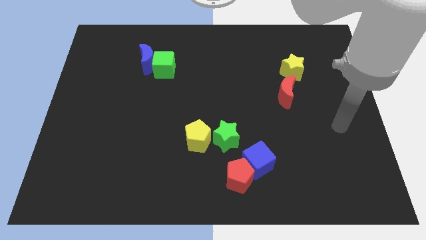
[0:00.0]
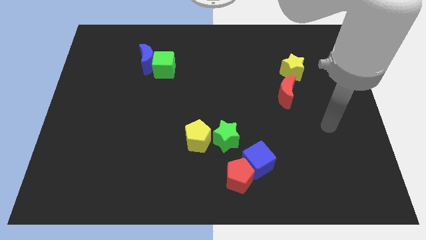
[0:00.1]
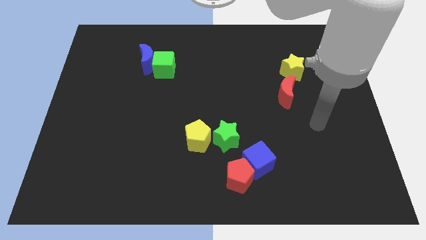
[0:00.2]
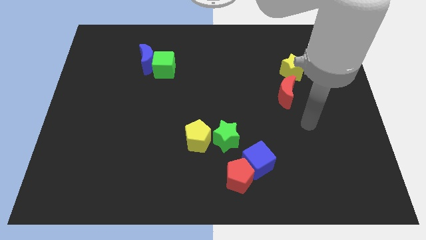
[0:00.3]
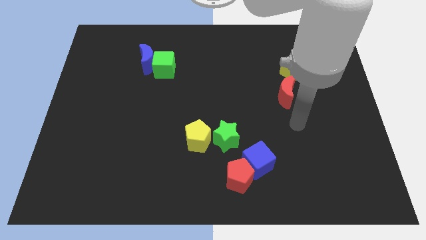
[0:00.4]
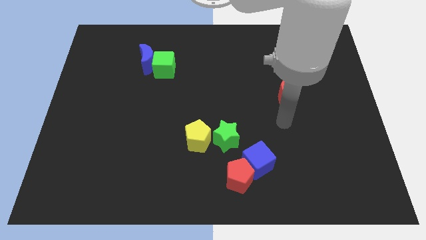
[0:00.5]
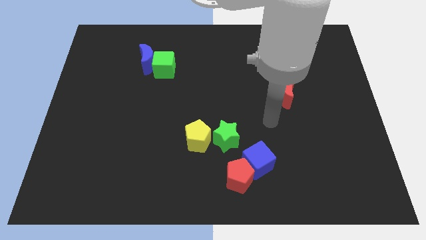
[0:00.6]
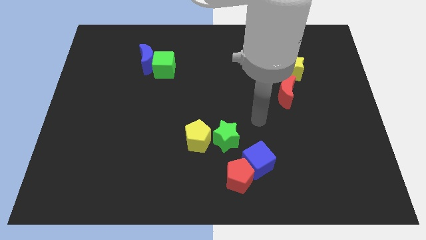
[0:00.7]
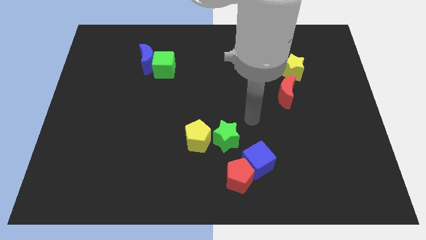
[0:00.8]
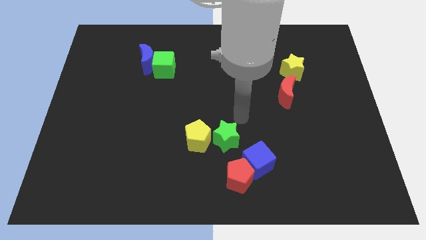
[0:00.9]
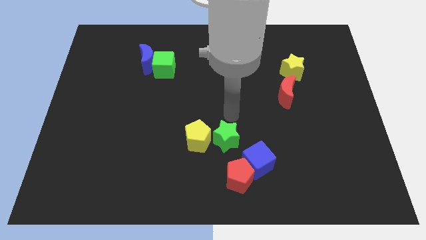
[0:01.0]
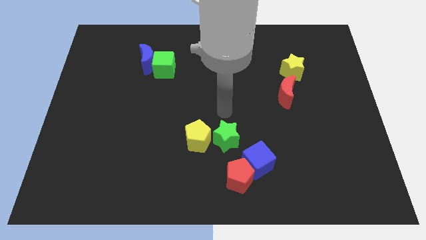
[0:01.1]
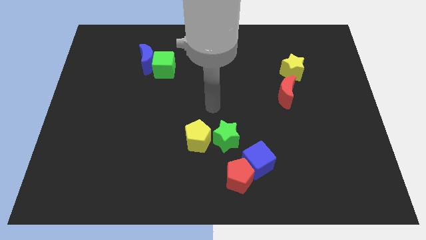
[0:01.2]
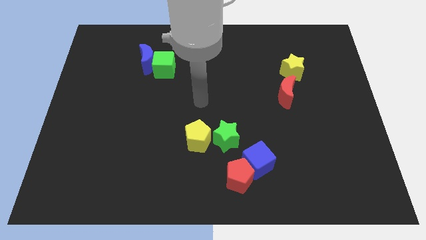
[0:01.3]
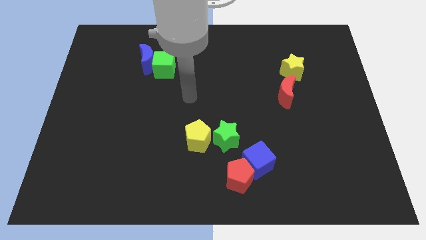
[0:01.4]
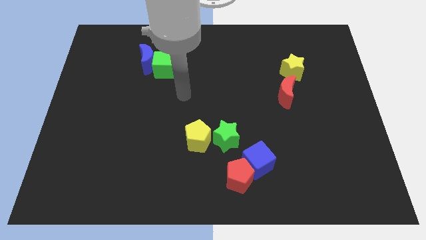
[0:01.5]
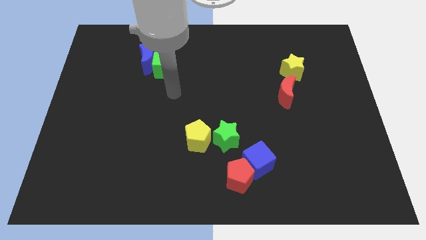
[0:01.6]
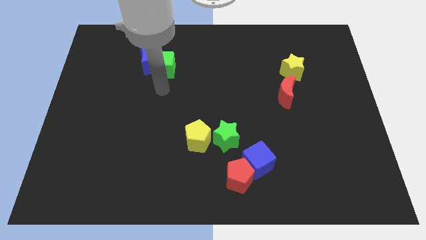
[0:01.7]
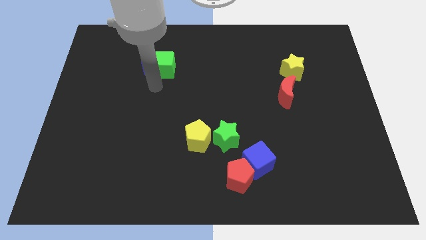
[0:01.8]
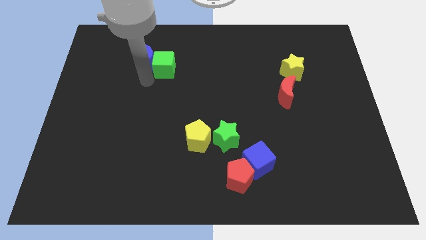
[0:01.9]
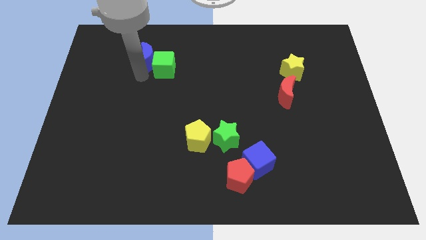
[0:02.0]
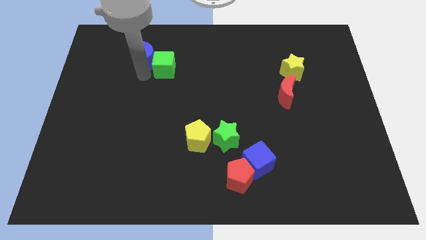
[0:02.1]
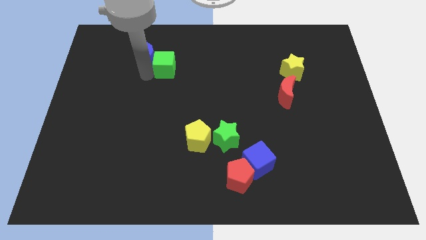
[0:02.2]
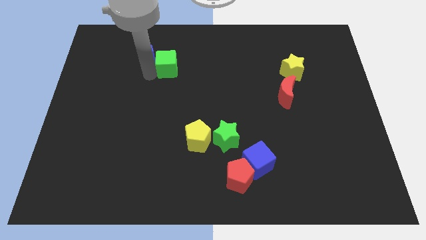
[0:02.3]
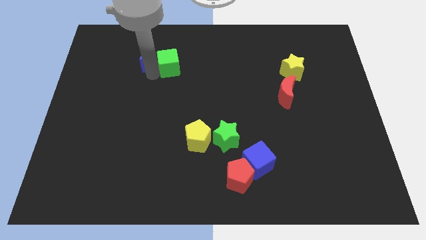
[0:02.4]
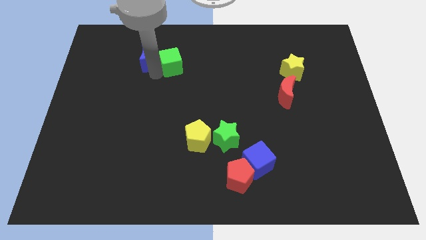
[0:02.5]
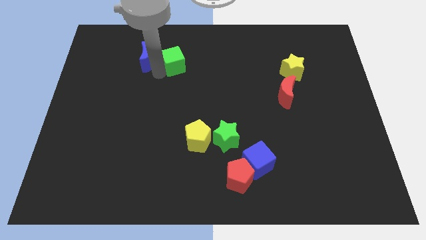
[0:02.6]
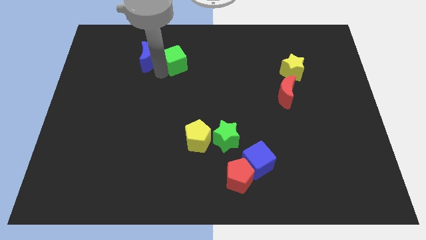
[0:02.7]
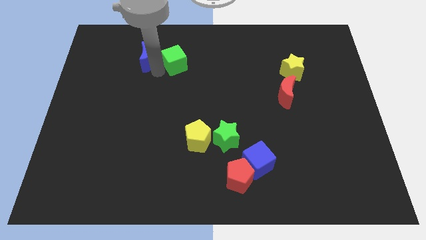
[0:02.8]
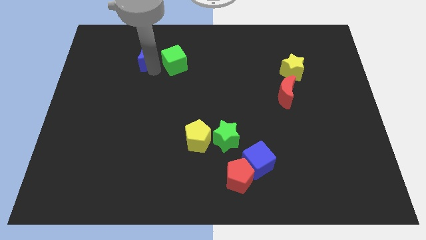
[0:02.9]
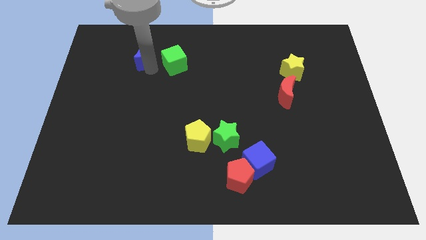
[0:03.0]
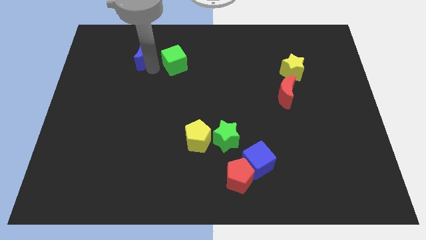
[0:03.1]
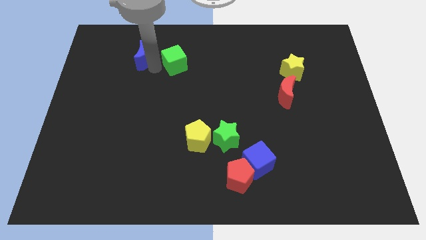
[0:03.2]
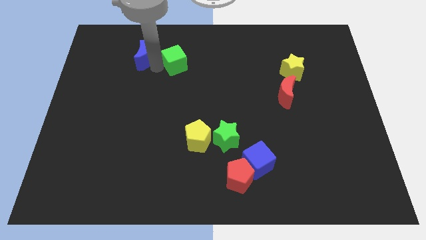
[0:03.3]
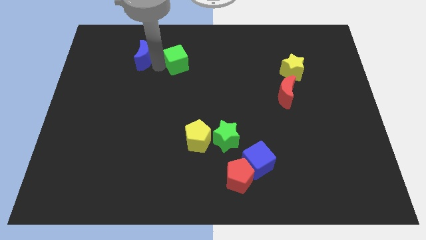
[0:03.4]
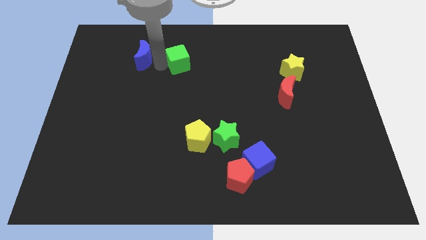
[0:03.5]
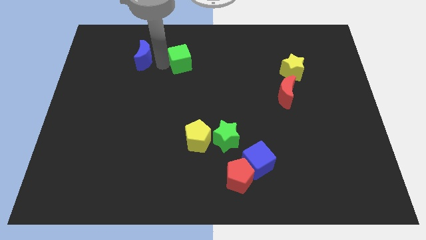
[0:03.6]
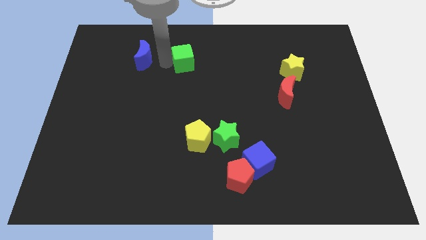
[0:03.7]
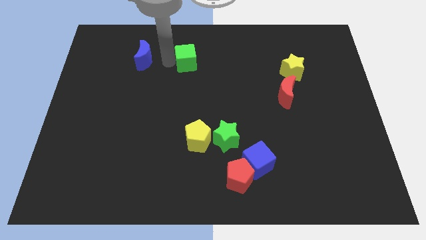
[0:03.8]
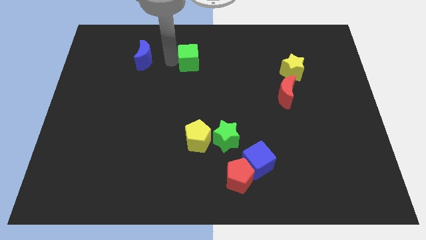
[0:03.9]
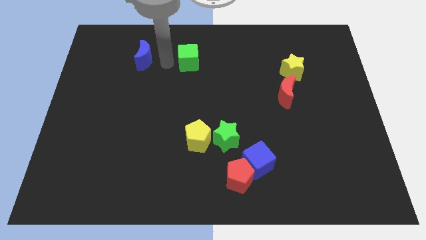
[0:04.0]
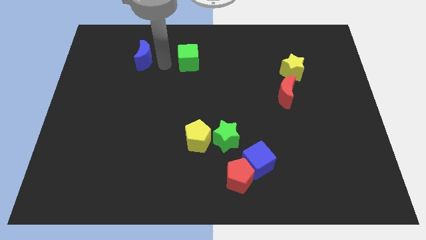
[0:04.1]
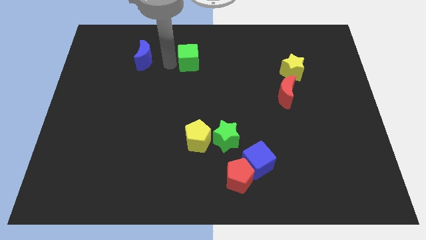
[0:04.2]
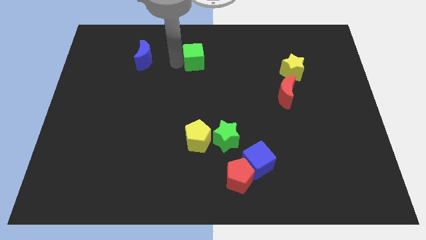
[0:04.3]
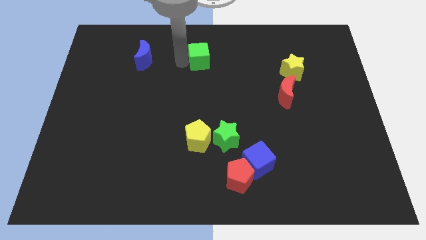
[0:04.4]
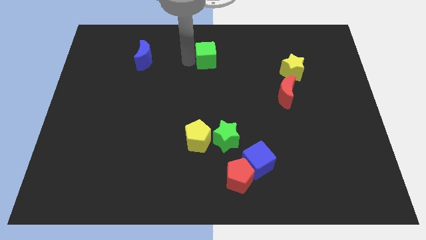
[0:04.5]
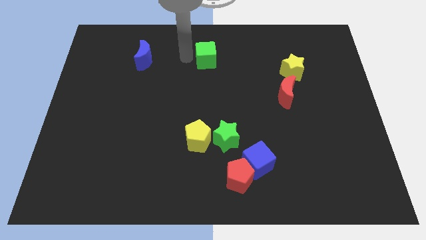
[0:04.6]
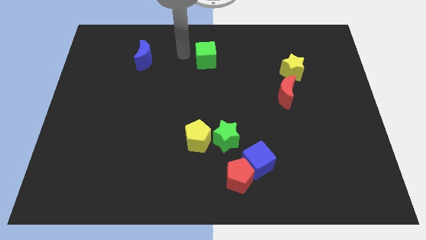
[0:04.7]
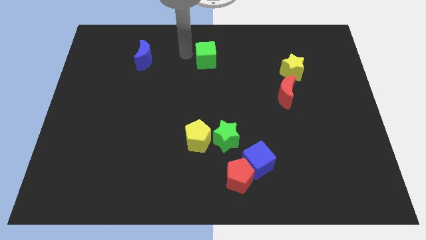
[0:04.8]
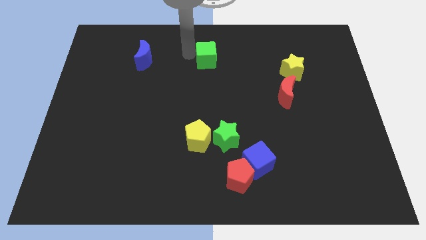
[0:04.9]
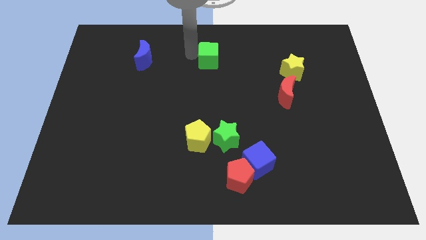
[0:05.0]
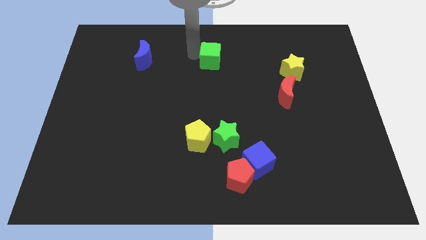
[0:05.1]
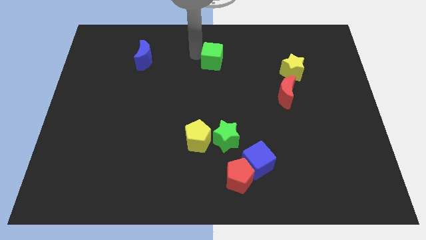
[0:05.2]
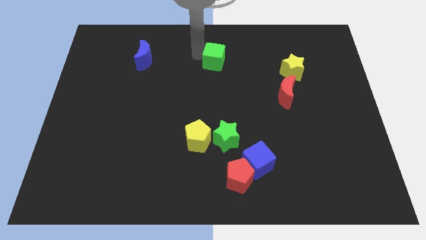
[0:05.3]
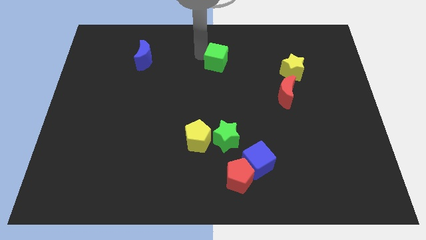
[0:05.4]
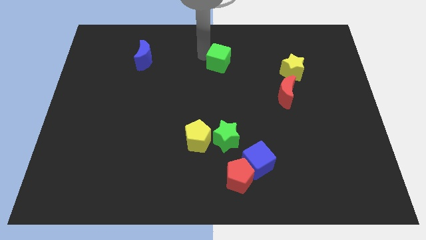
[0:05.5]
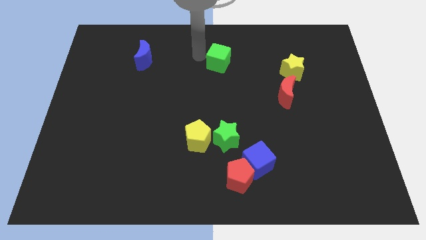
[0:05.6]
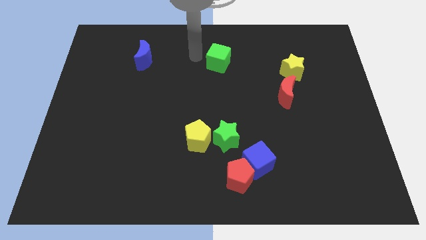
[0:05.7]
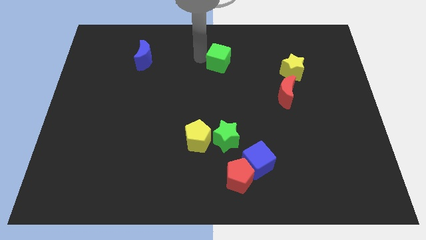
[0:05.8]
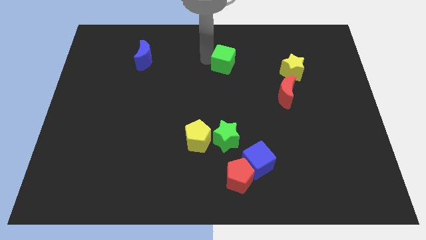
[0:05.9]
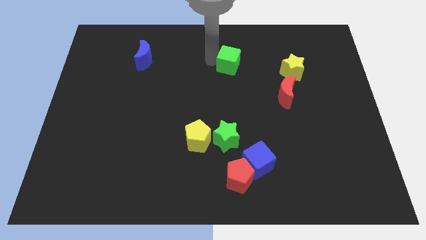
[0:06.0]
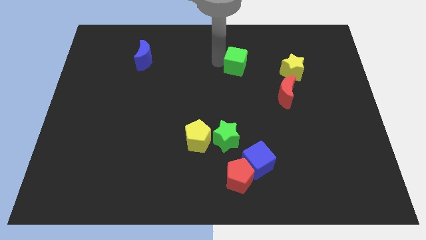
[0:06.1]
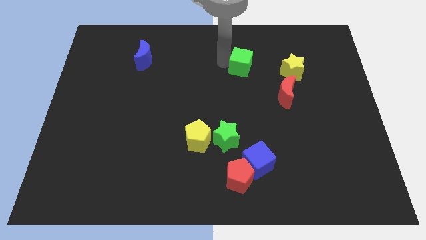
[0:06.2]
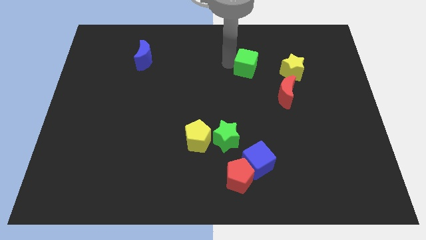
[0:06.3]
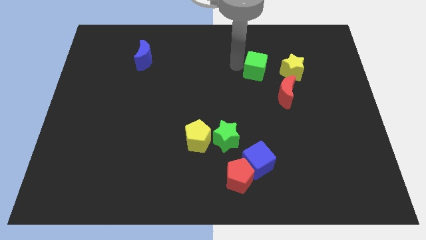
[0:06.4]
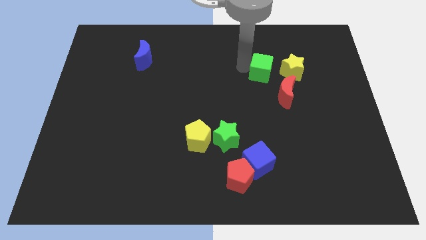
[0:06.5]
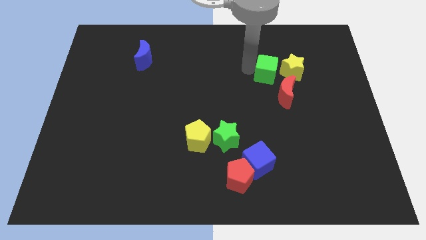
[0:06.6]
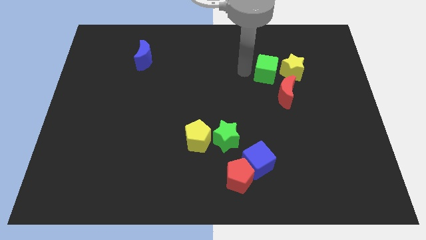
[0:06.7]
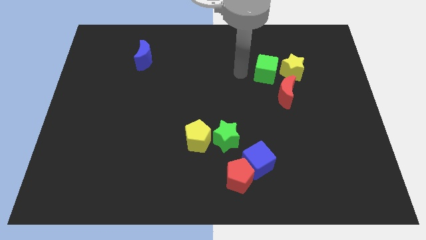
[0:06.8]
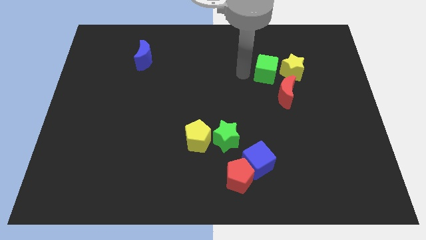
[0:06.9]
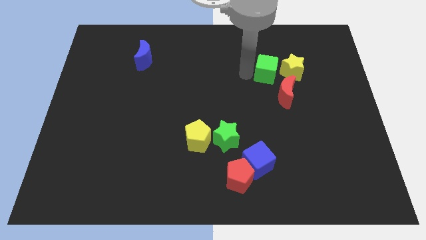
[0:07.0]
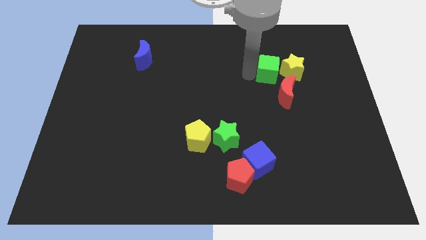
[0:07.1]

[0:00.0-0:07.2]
push the green cube to the yellow star
